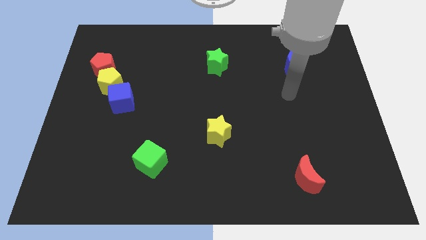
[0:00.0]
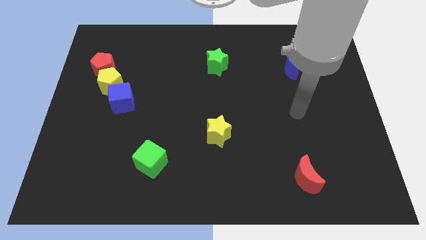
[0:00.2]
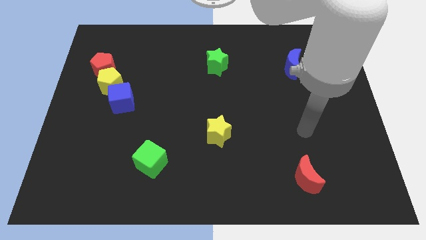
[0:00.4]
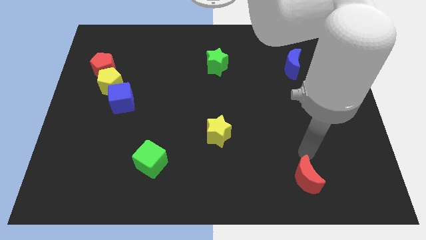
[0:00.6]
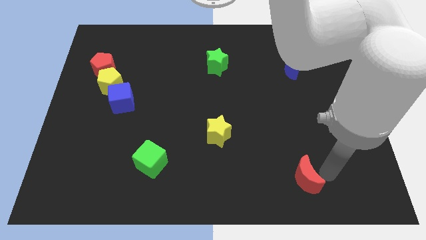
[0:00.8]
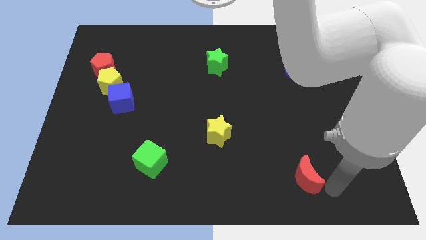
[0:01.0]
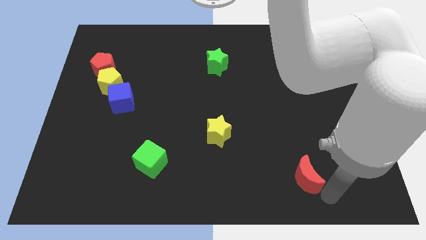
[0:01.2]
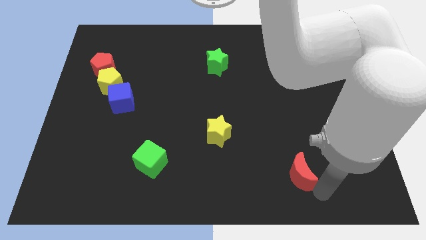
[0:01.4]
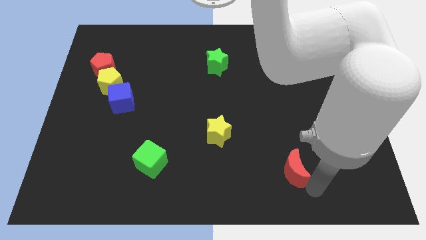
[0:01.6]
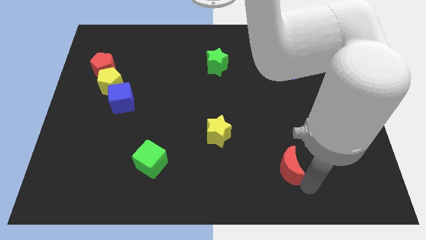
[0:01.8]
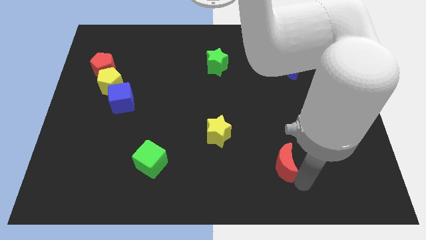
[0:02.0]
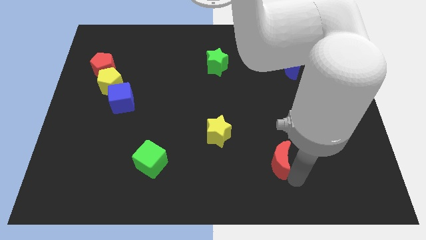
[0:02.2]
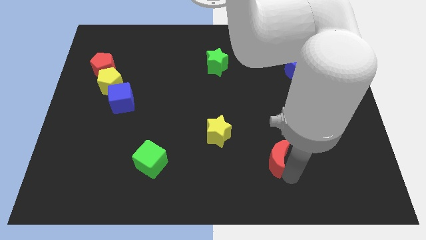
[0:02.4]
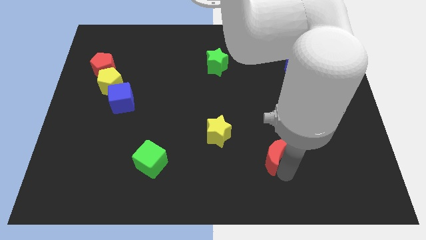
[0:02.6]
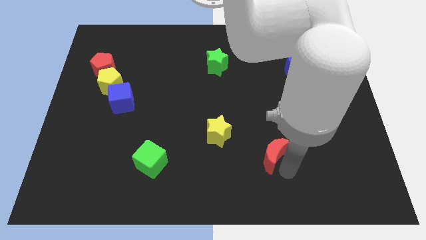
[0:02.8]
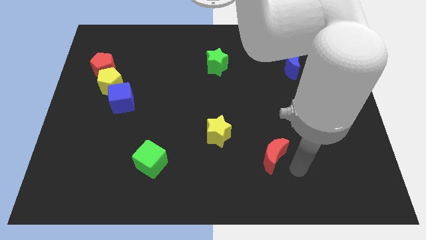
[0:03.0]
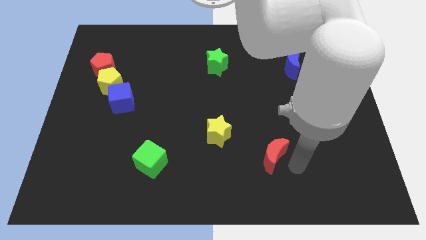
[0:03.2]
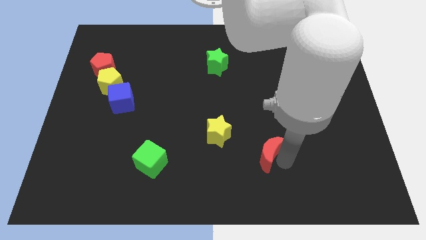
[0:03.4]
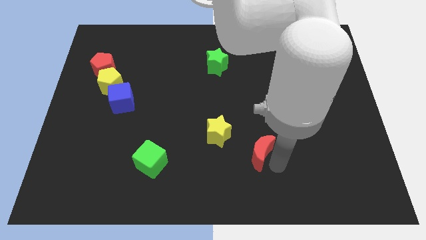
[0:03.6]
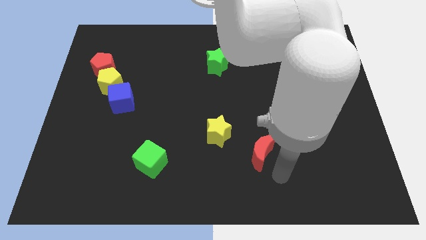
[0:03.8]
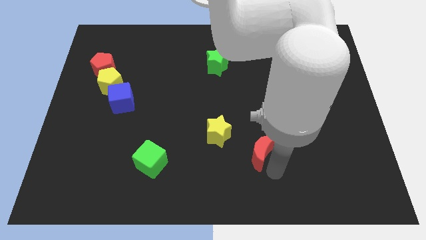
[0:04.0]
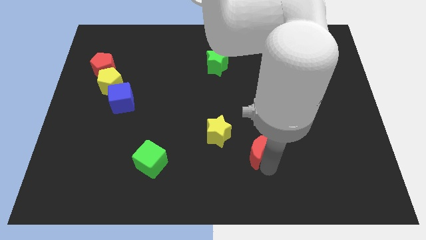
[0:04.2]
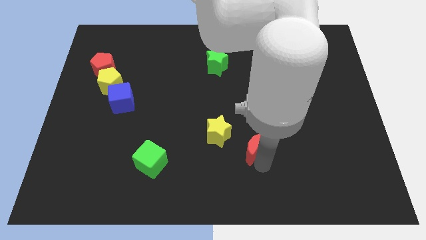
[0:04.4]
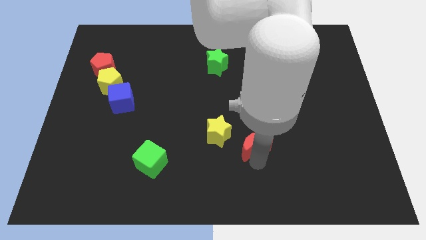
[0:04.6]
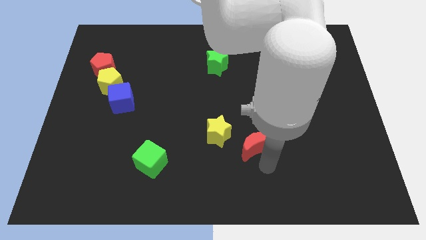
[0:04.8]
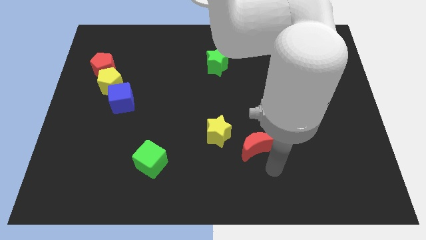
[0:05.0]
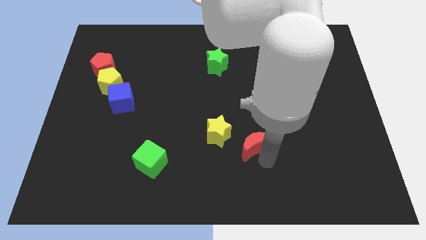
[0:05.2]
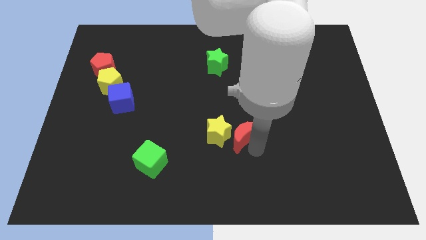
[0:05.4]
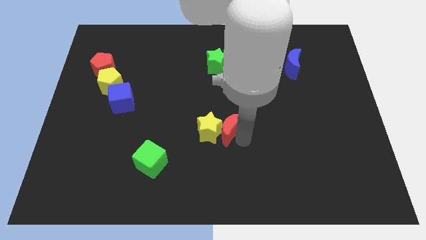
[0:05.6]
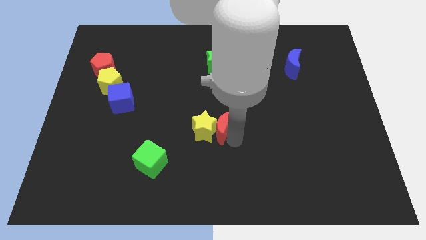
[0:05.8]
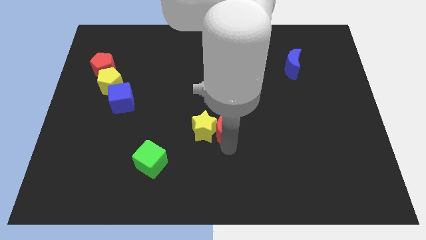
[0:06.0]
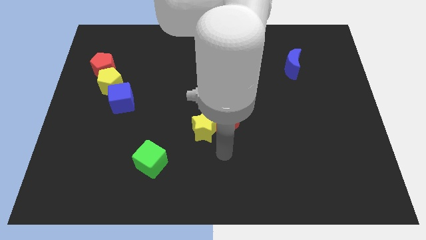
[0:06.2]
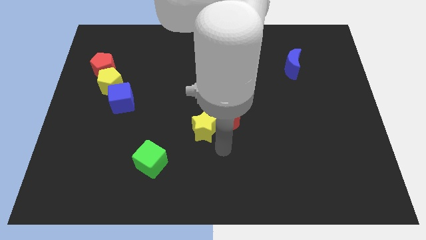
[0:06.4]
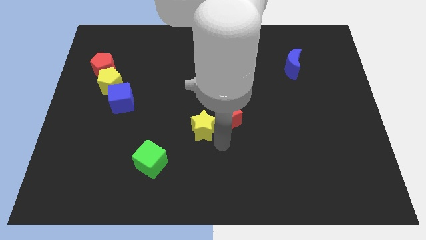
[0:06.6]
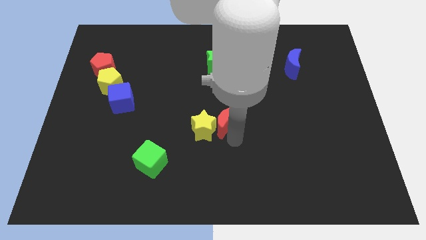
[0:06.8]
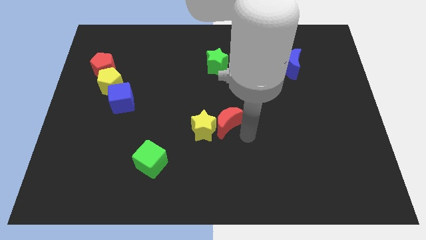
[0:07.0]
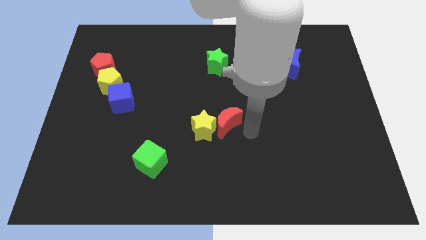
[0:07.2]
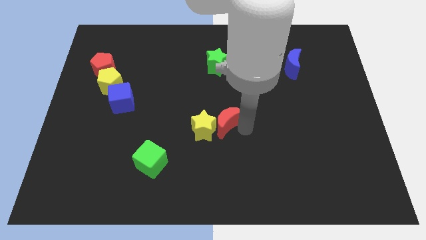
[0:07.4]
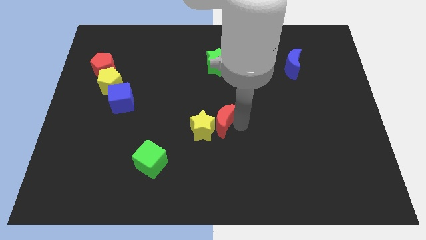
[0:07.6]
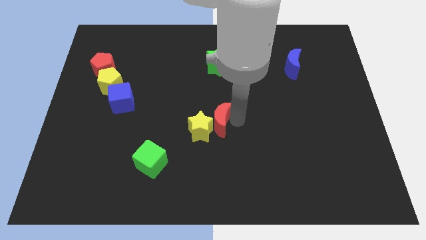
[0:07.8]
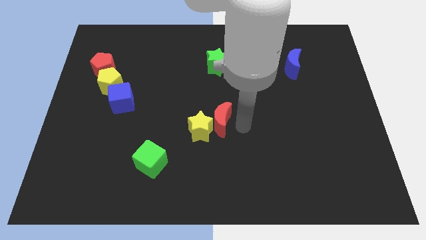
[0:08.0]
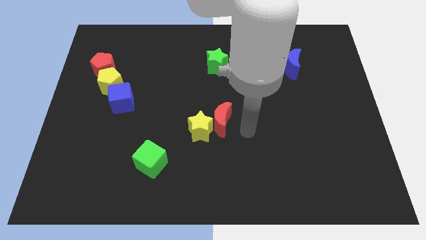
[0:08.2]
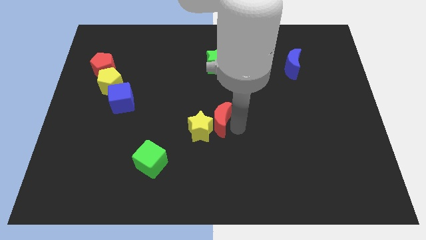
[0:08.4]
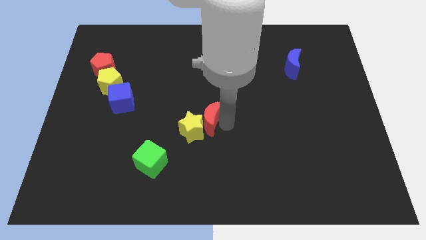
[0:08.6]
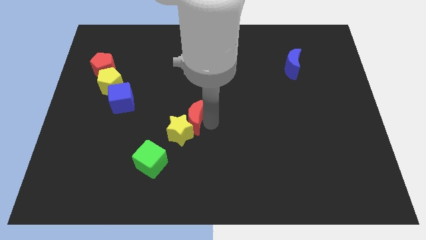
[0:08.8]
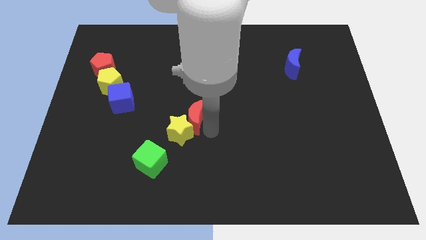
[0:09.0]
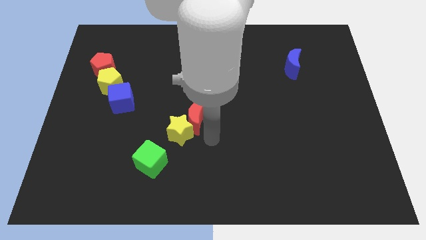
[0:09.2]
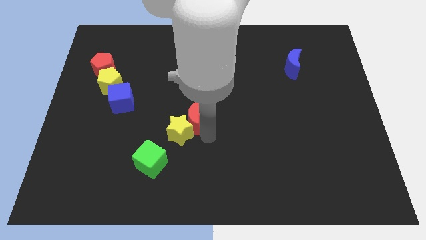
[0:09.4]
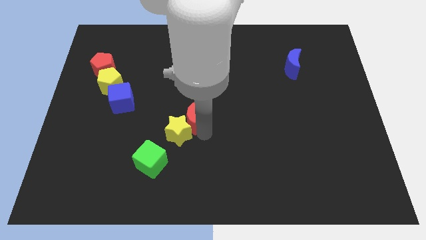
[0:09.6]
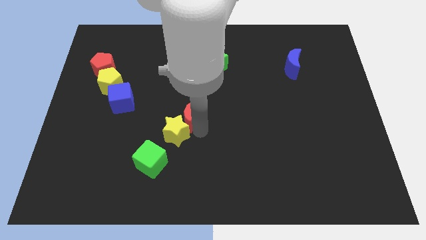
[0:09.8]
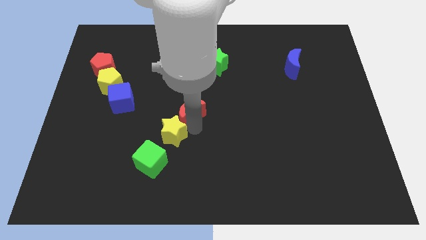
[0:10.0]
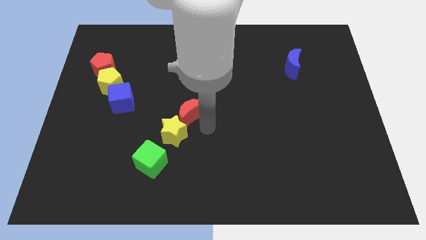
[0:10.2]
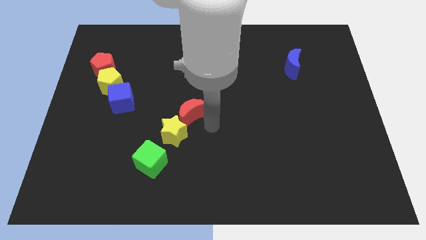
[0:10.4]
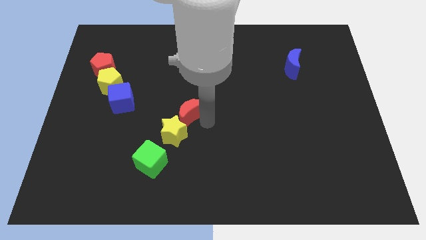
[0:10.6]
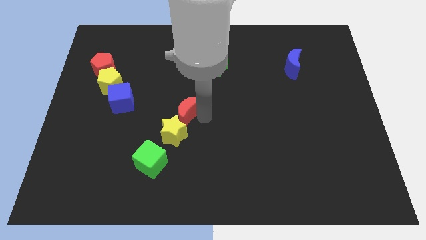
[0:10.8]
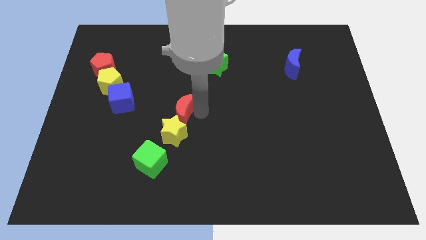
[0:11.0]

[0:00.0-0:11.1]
move the red moon to the right of the blue cube

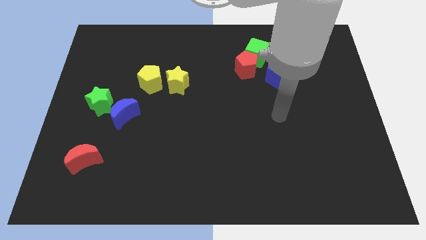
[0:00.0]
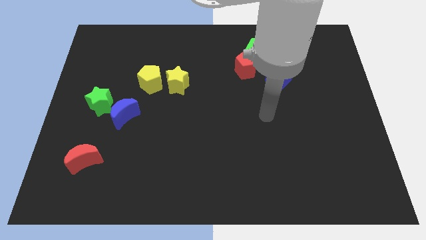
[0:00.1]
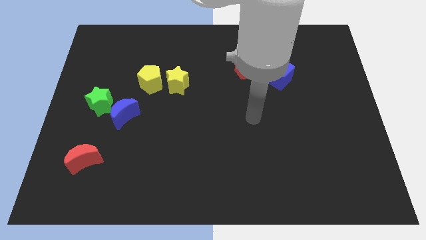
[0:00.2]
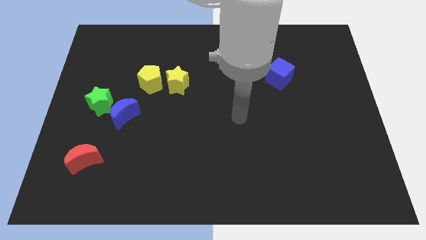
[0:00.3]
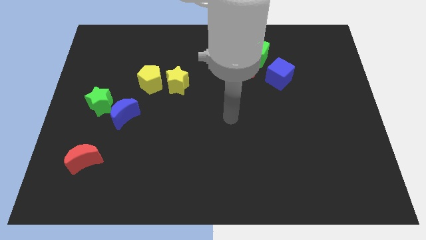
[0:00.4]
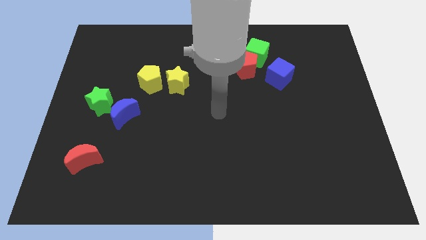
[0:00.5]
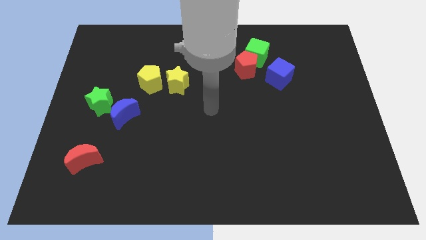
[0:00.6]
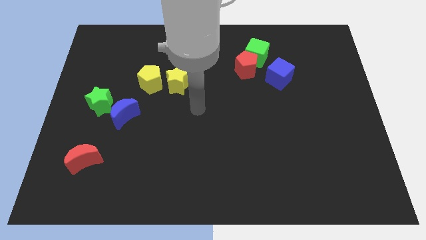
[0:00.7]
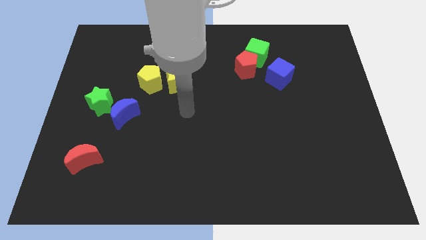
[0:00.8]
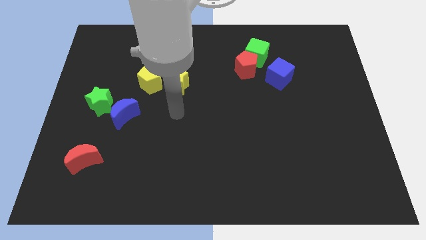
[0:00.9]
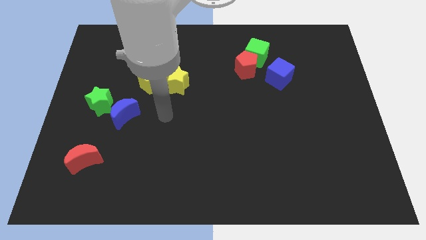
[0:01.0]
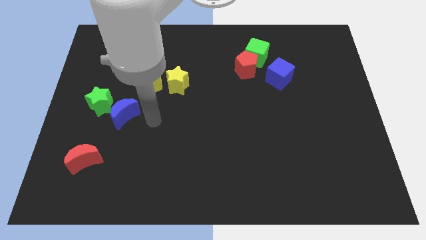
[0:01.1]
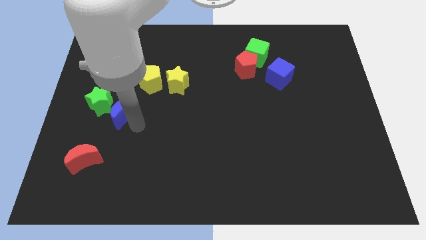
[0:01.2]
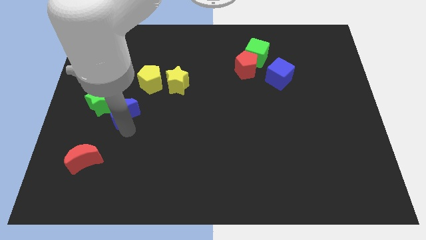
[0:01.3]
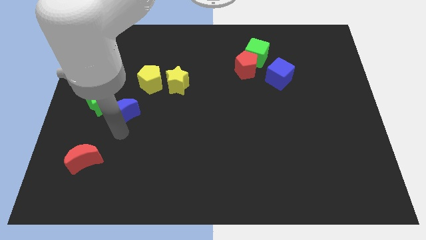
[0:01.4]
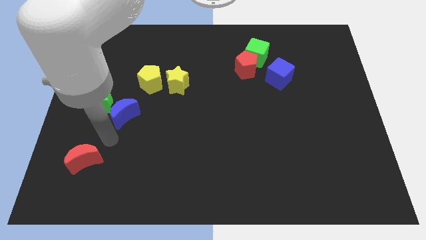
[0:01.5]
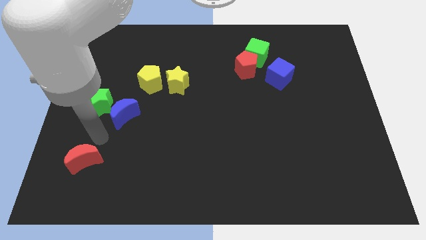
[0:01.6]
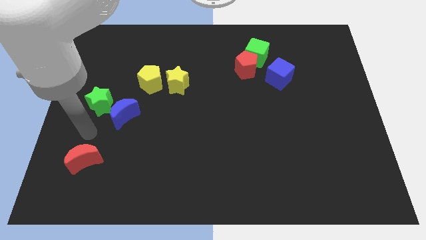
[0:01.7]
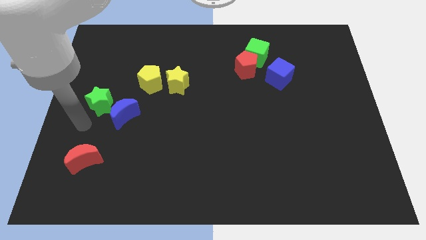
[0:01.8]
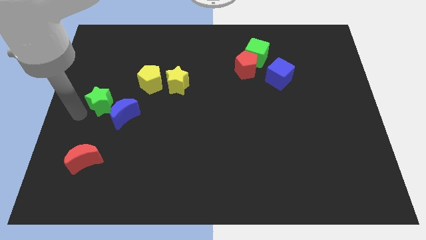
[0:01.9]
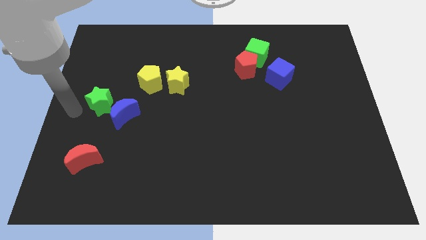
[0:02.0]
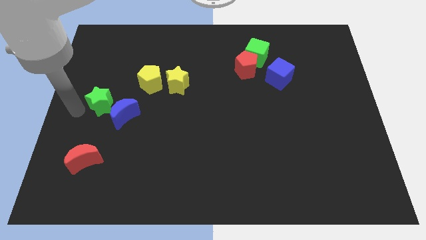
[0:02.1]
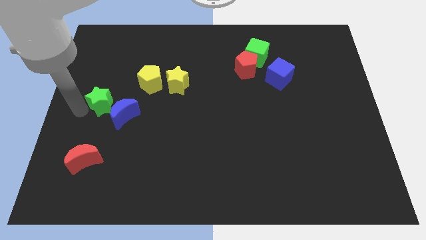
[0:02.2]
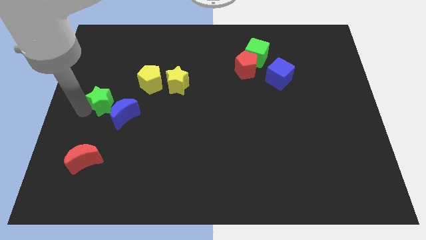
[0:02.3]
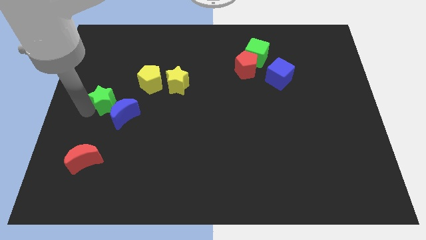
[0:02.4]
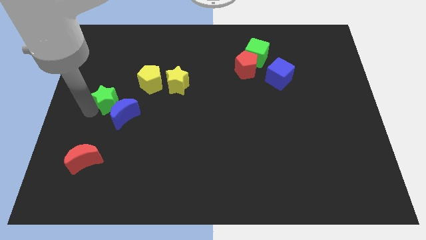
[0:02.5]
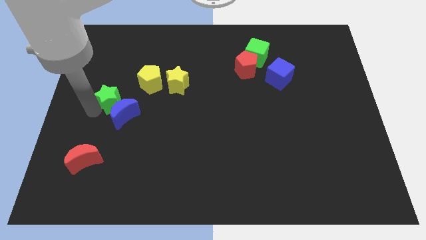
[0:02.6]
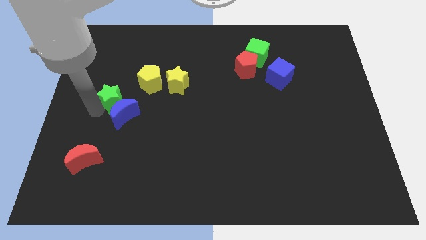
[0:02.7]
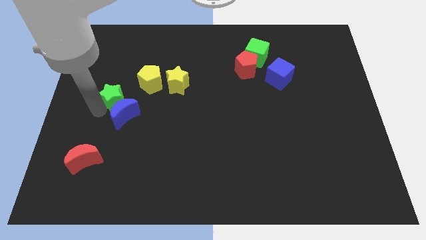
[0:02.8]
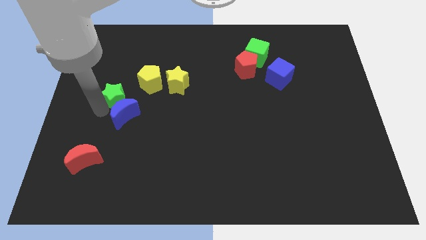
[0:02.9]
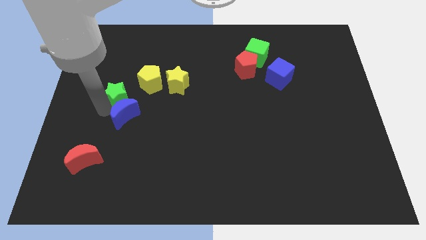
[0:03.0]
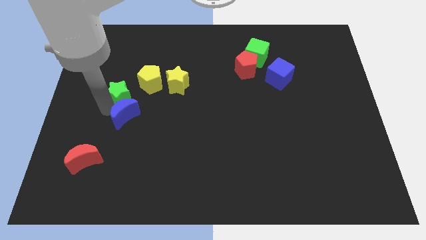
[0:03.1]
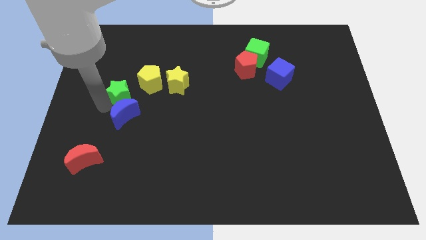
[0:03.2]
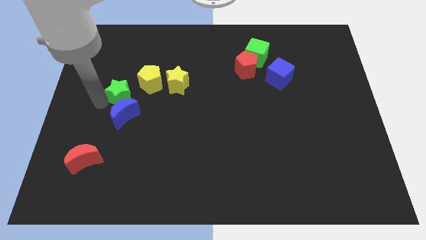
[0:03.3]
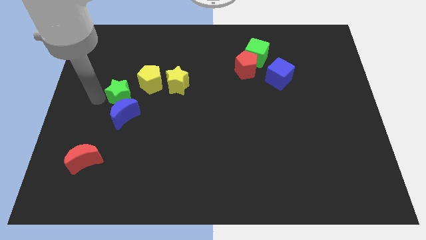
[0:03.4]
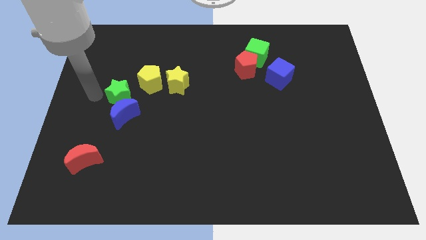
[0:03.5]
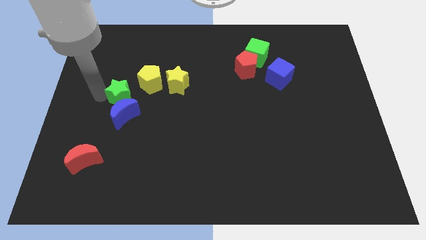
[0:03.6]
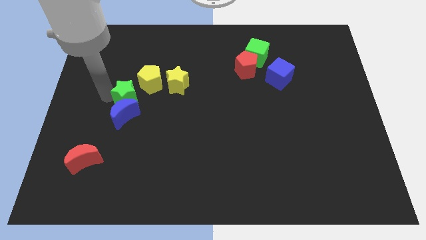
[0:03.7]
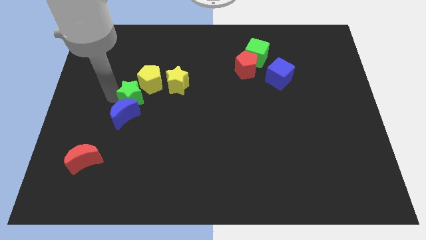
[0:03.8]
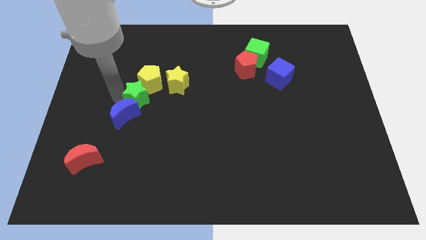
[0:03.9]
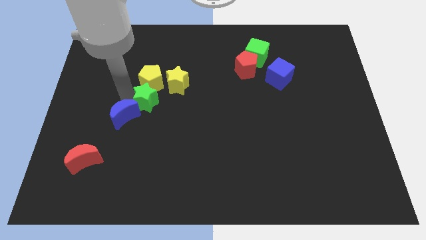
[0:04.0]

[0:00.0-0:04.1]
push the green star to the bottom right side of the yellow pentagon
